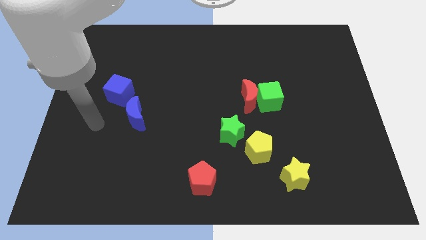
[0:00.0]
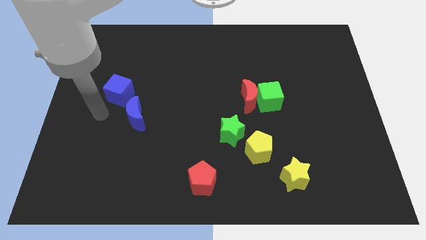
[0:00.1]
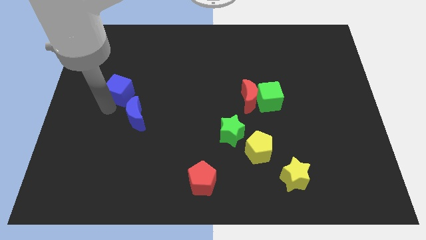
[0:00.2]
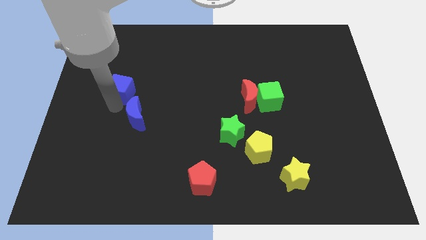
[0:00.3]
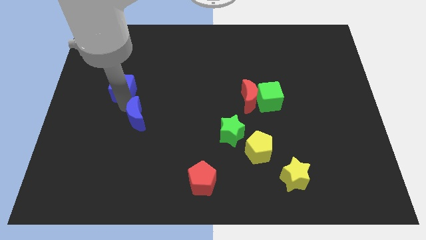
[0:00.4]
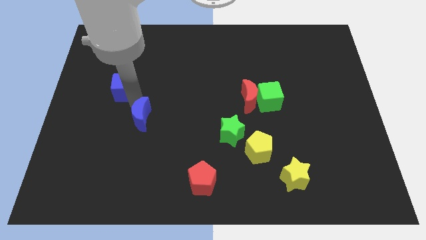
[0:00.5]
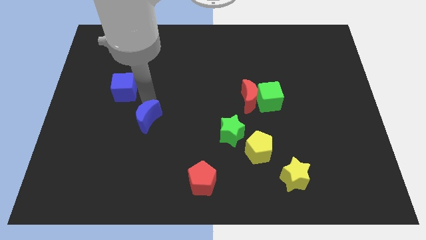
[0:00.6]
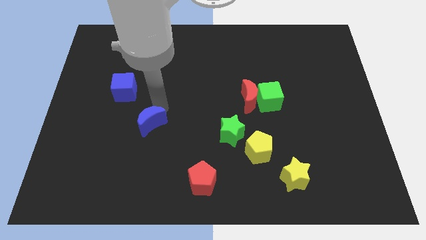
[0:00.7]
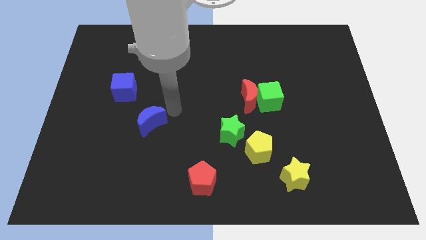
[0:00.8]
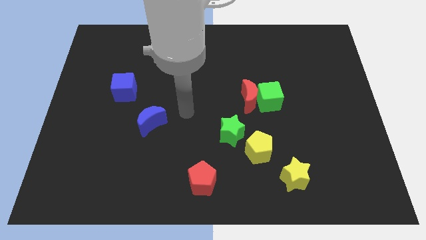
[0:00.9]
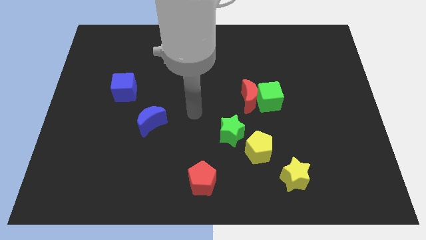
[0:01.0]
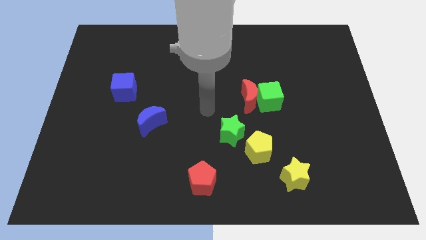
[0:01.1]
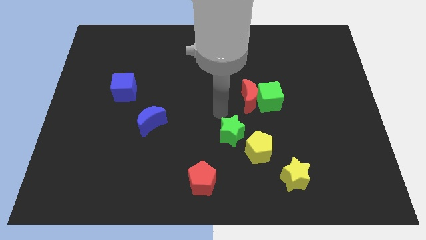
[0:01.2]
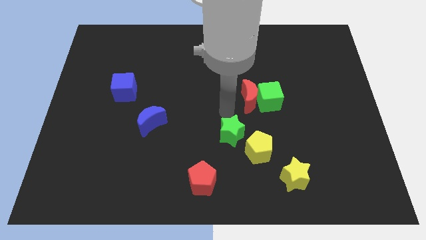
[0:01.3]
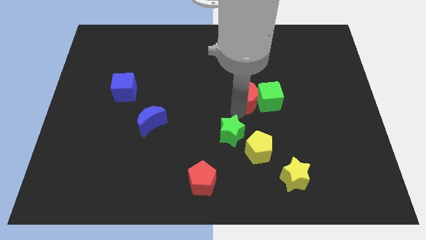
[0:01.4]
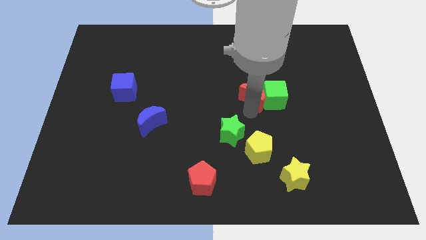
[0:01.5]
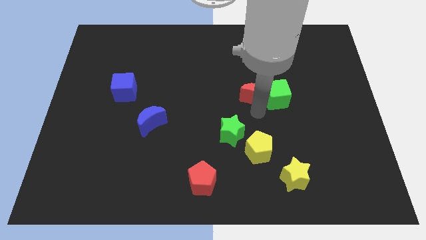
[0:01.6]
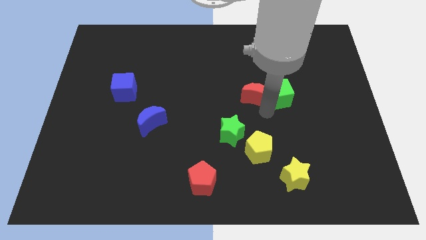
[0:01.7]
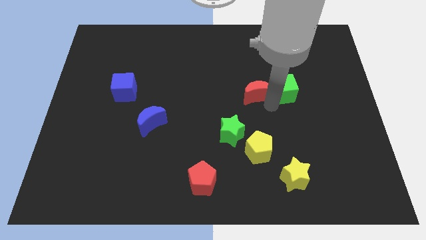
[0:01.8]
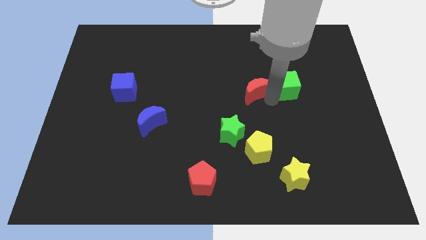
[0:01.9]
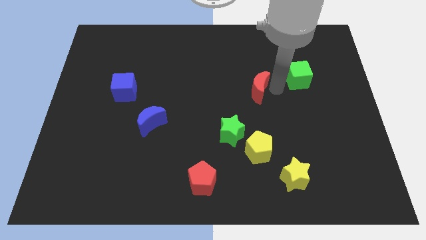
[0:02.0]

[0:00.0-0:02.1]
move the red moon away from the green cube

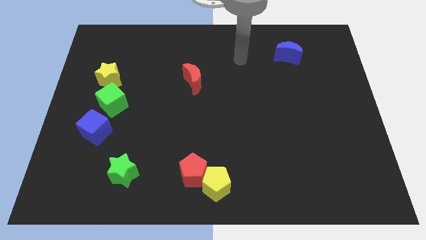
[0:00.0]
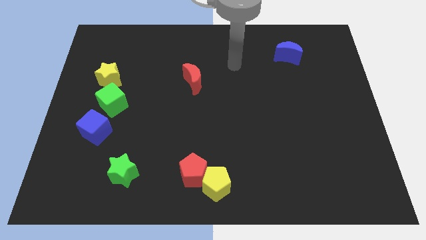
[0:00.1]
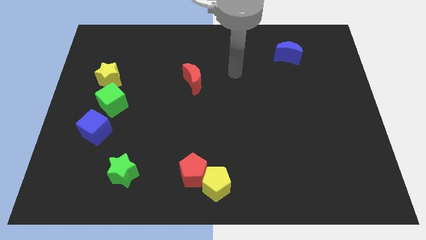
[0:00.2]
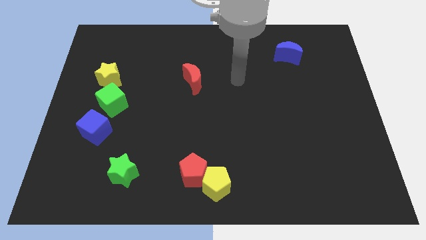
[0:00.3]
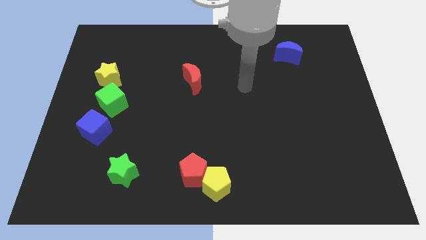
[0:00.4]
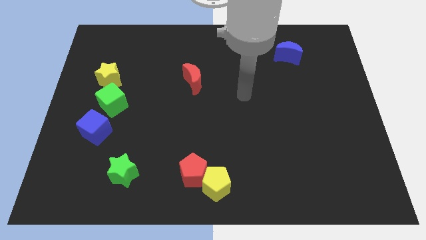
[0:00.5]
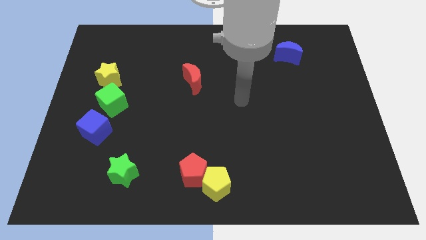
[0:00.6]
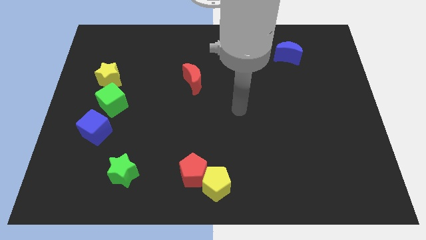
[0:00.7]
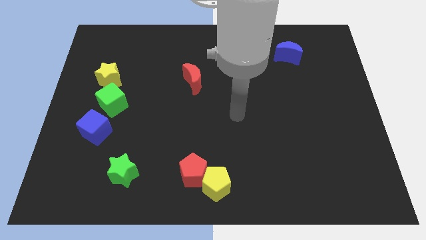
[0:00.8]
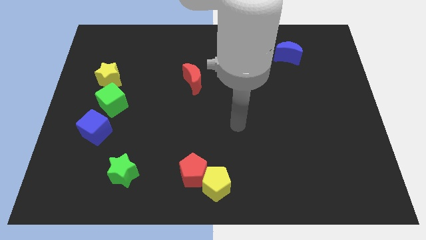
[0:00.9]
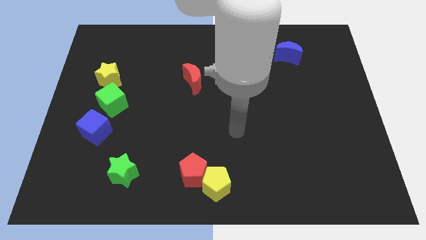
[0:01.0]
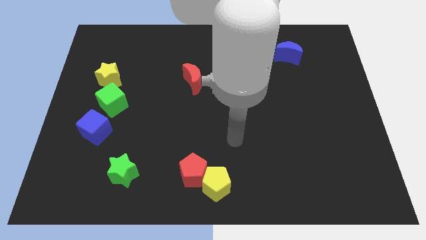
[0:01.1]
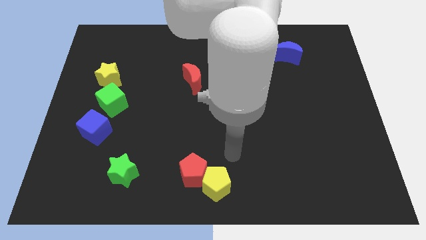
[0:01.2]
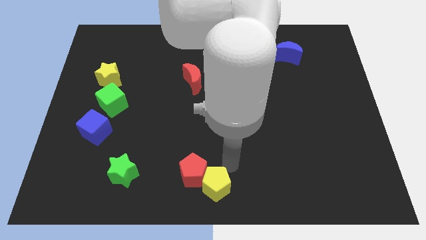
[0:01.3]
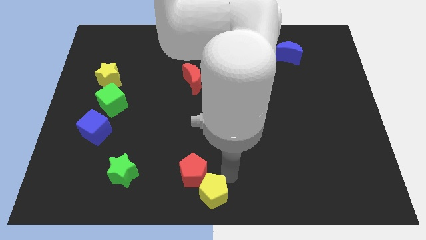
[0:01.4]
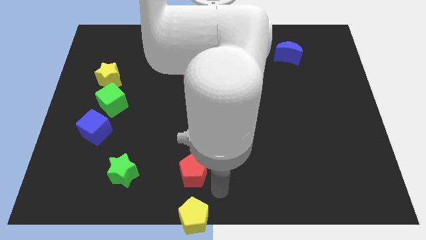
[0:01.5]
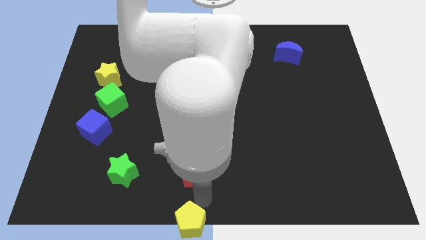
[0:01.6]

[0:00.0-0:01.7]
move the red pentagon away from the yellow pentagon

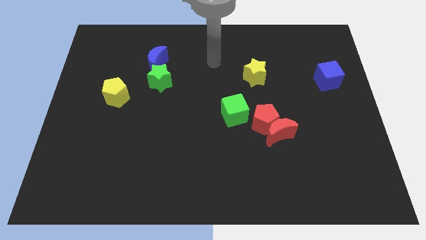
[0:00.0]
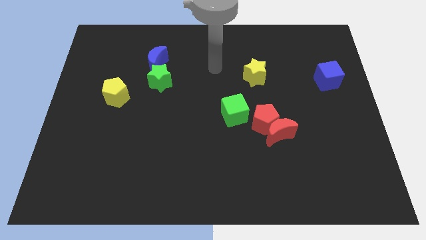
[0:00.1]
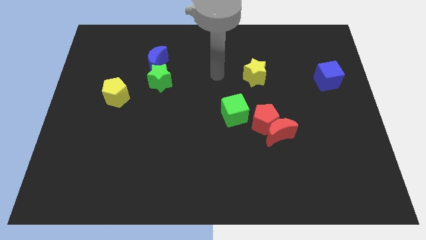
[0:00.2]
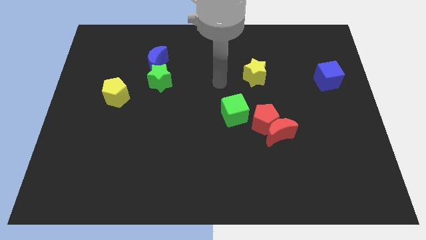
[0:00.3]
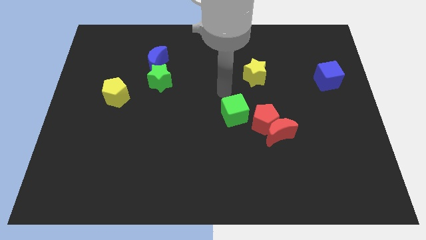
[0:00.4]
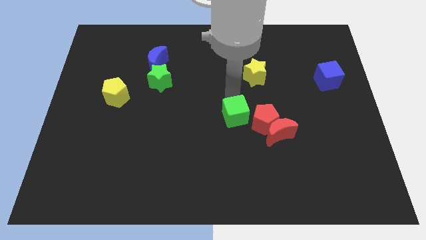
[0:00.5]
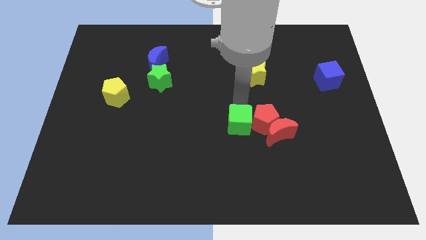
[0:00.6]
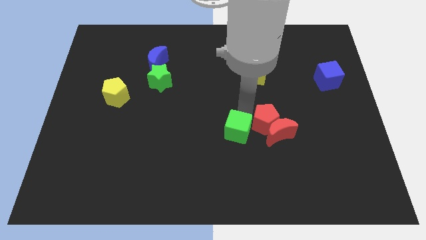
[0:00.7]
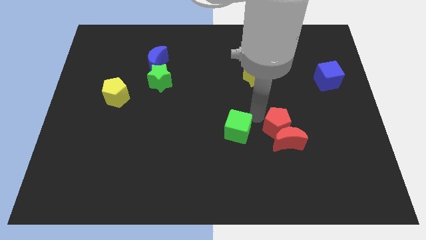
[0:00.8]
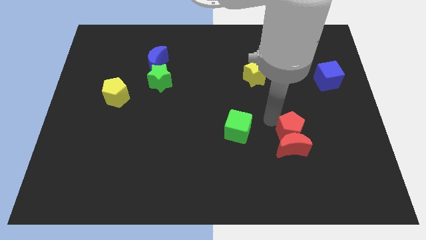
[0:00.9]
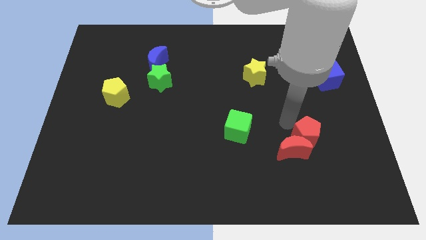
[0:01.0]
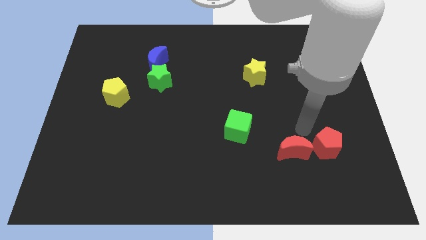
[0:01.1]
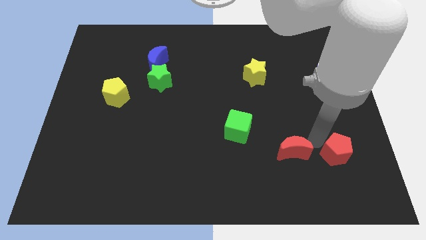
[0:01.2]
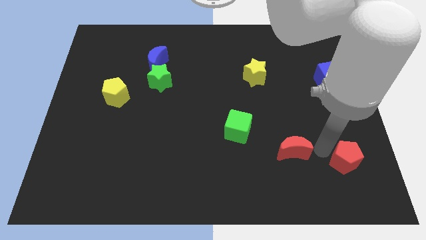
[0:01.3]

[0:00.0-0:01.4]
separate the red moon from the red pentagon

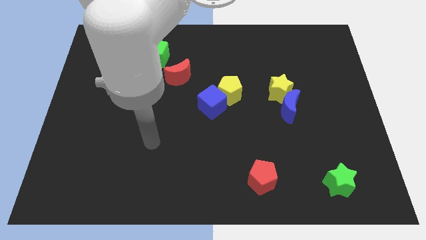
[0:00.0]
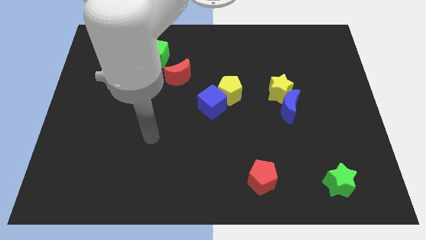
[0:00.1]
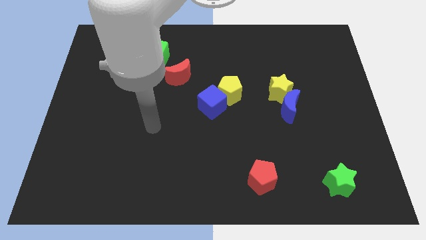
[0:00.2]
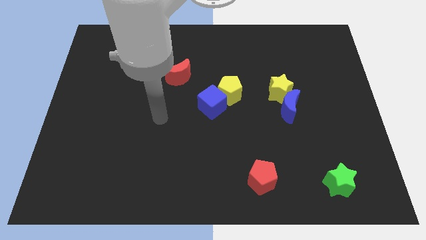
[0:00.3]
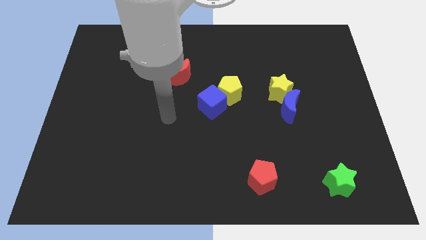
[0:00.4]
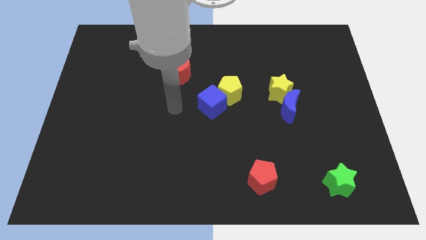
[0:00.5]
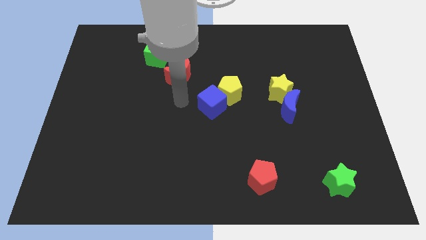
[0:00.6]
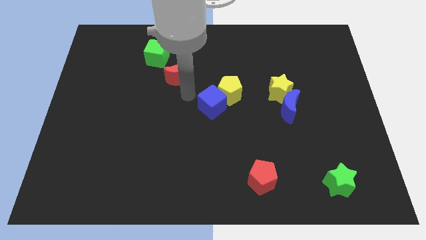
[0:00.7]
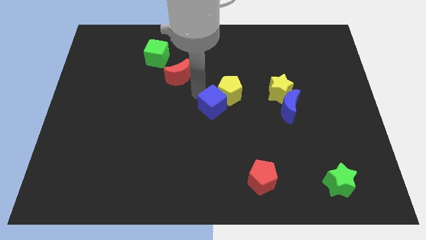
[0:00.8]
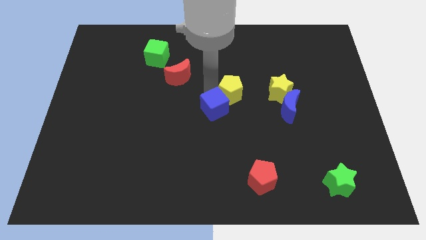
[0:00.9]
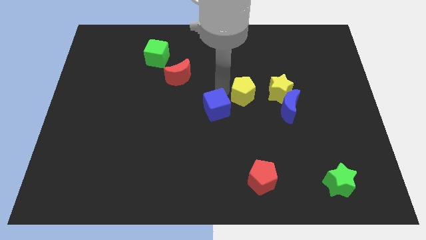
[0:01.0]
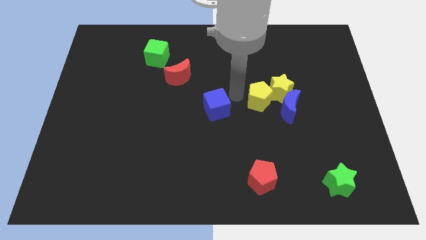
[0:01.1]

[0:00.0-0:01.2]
move the blue cube away from the yellow pentagon

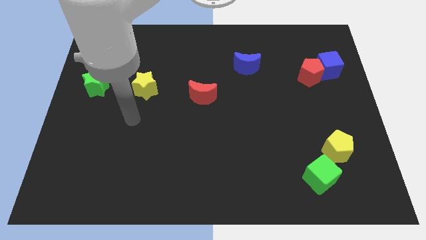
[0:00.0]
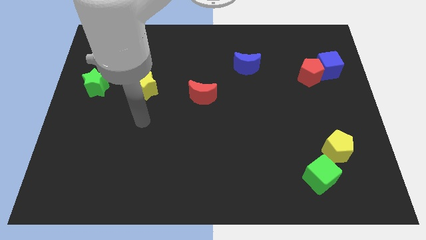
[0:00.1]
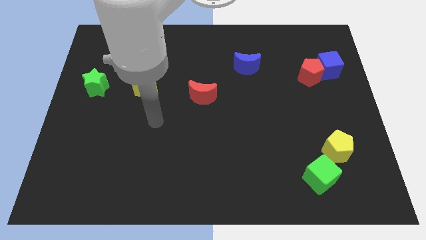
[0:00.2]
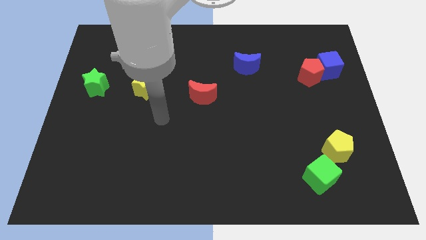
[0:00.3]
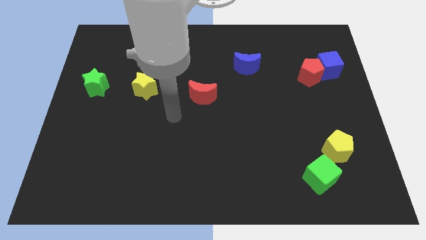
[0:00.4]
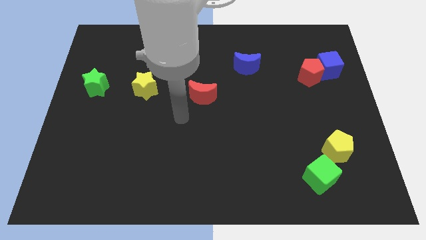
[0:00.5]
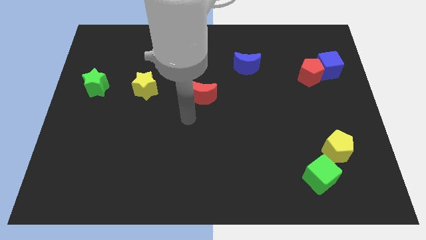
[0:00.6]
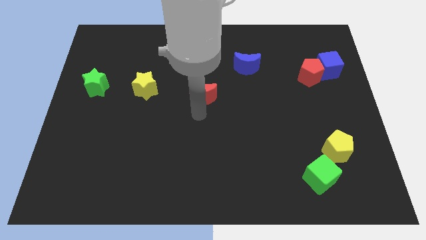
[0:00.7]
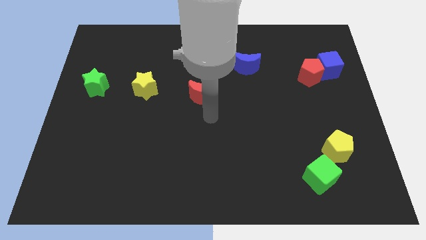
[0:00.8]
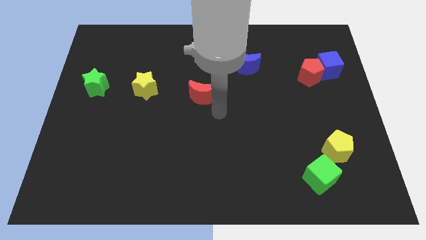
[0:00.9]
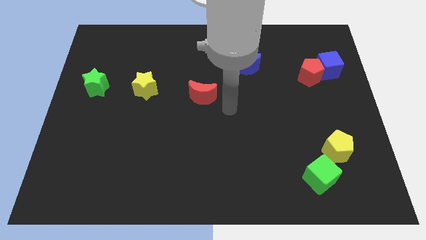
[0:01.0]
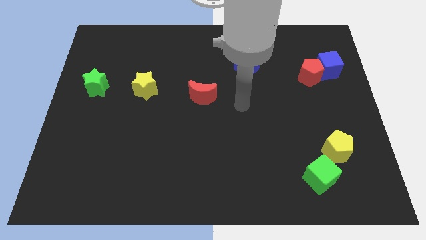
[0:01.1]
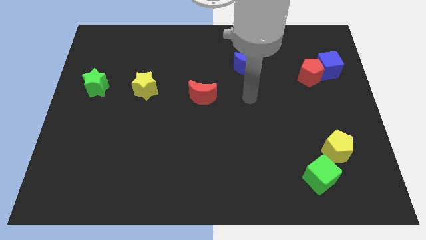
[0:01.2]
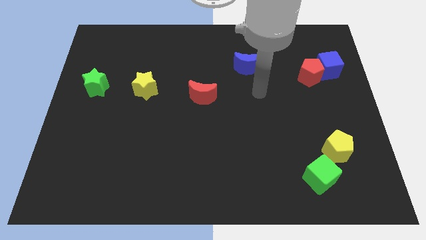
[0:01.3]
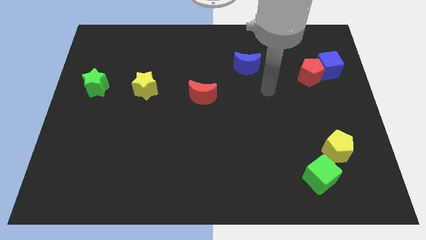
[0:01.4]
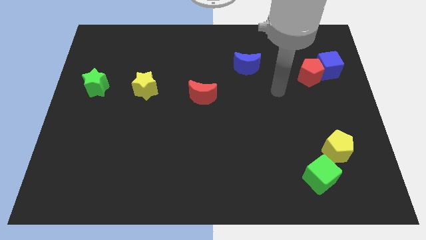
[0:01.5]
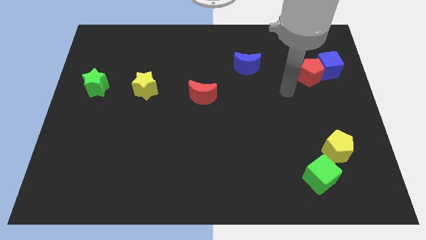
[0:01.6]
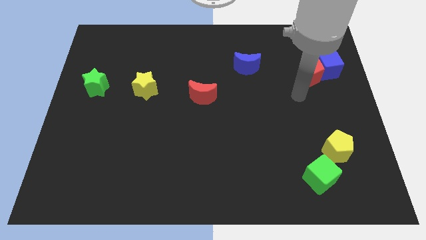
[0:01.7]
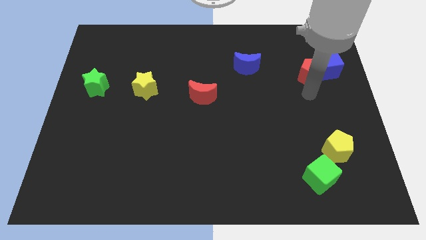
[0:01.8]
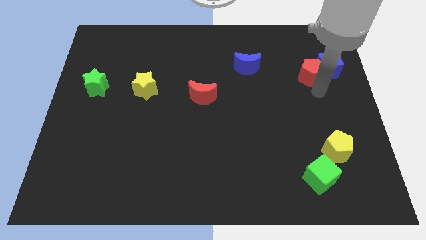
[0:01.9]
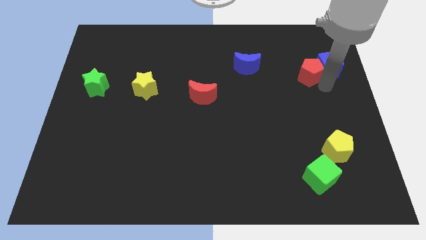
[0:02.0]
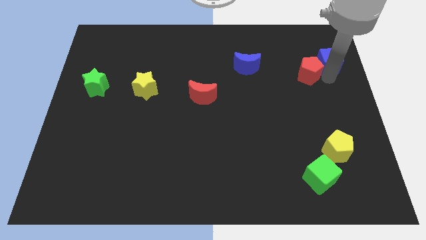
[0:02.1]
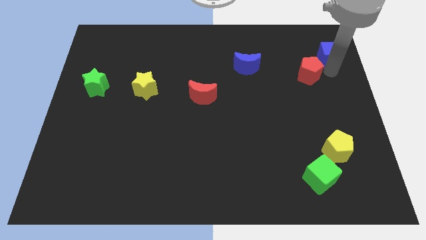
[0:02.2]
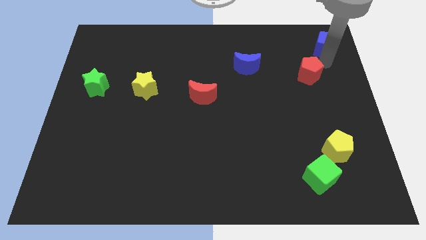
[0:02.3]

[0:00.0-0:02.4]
move the red pentagon away from the blue cube

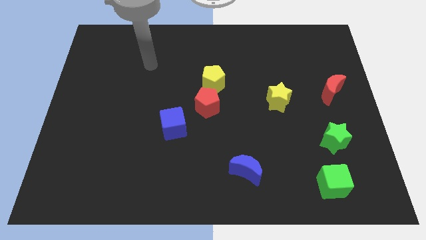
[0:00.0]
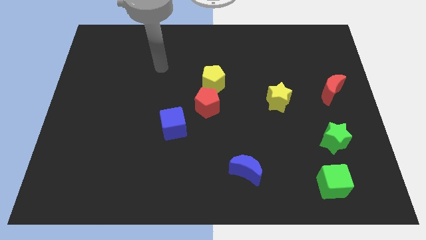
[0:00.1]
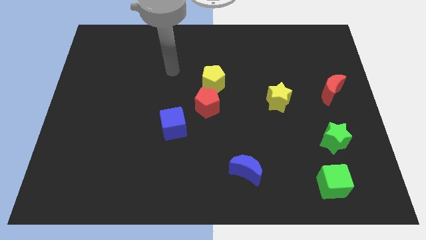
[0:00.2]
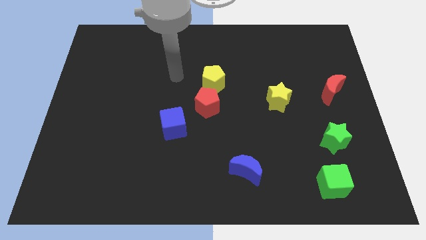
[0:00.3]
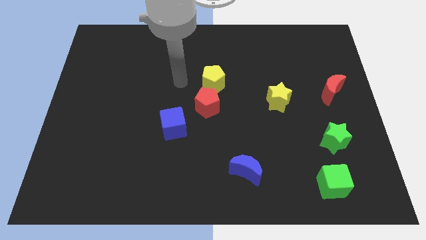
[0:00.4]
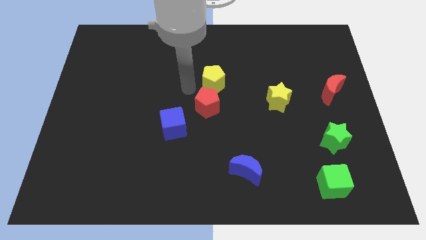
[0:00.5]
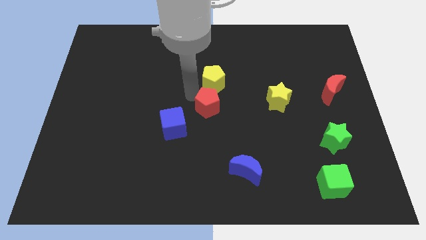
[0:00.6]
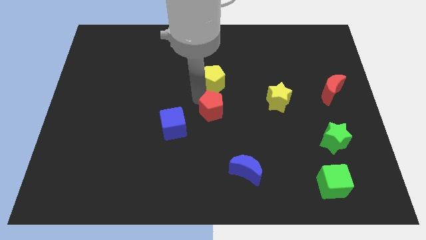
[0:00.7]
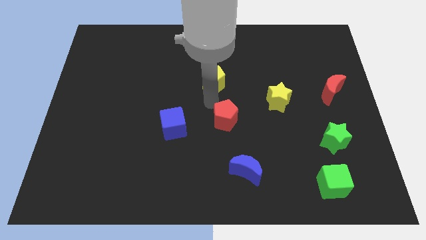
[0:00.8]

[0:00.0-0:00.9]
pull the yellow pentagon apart from the red pentagon
